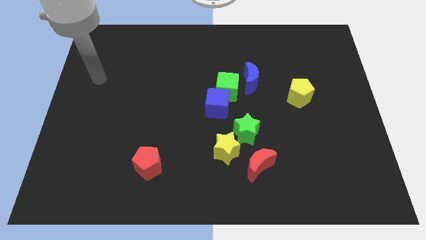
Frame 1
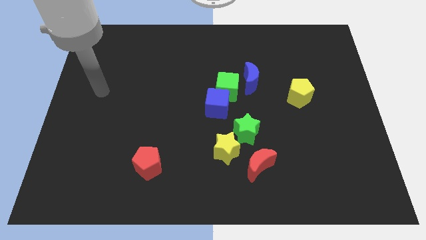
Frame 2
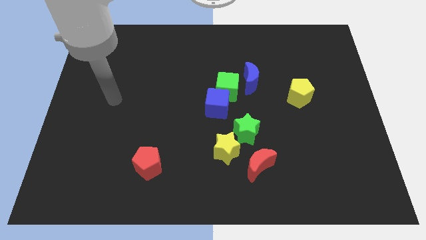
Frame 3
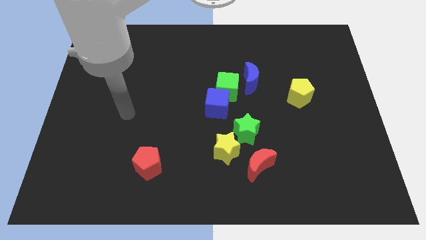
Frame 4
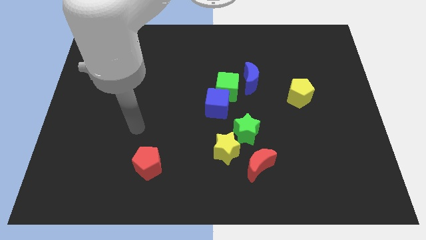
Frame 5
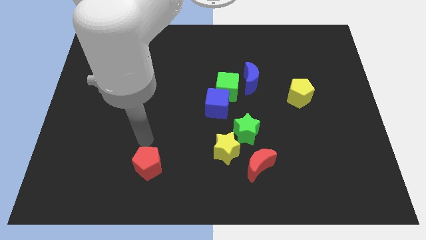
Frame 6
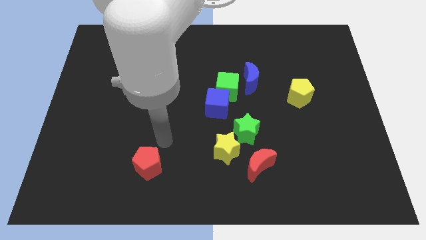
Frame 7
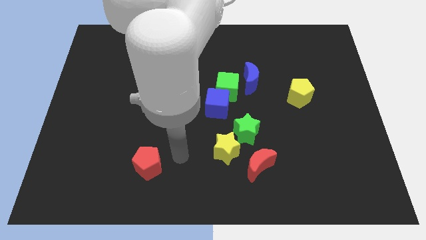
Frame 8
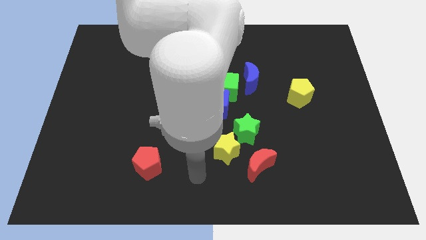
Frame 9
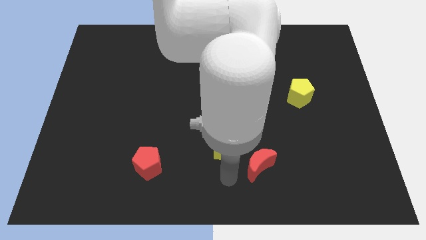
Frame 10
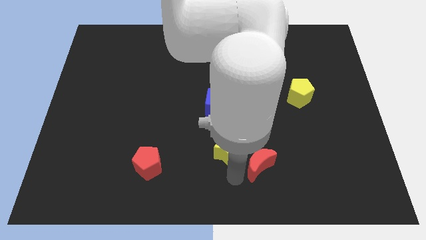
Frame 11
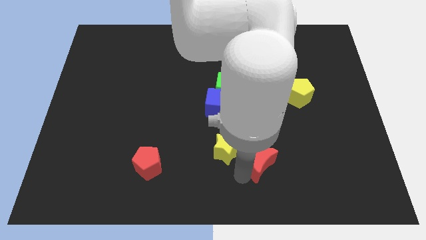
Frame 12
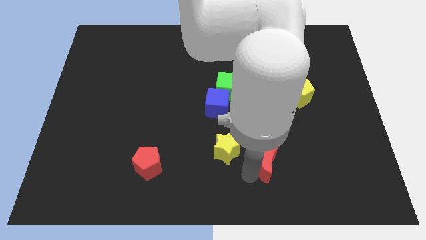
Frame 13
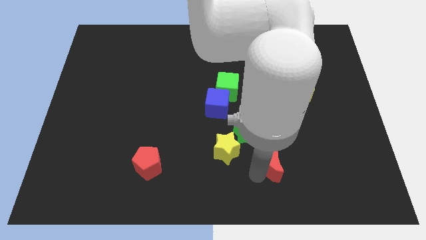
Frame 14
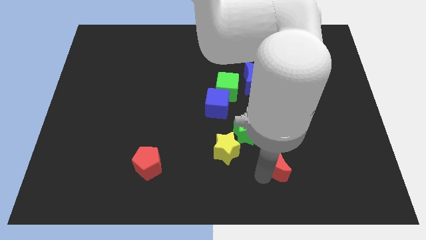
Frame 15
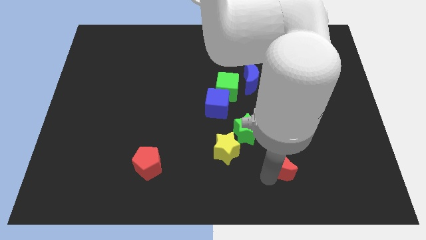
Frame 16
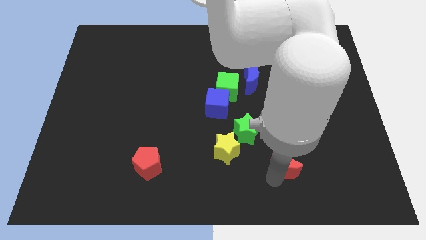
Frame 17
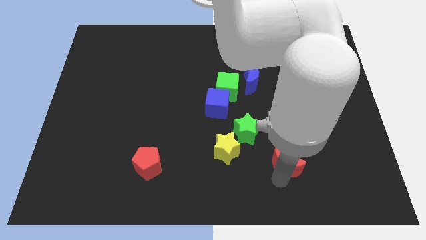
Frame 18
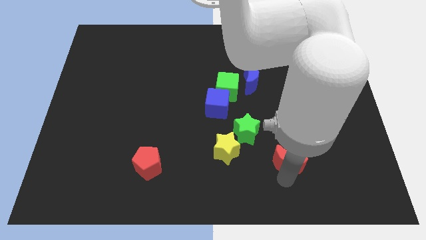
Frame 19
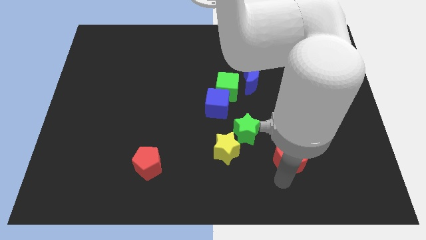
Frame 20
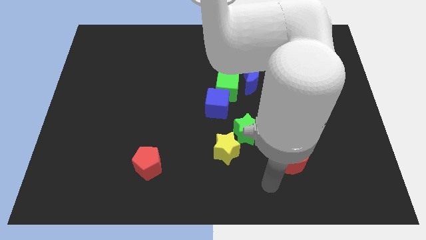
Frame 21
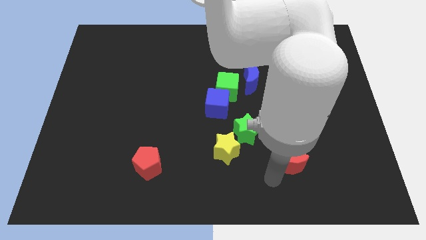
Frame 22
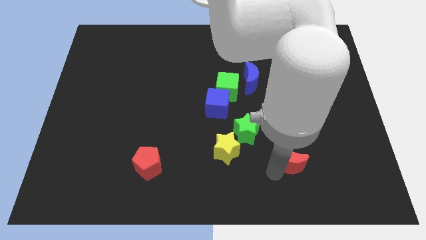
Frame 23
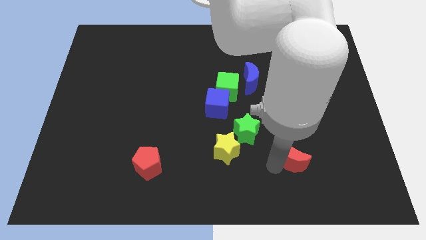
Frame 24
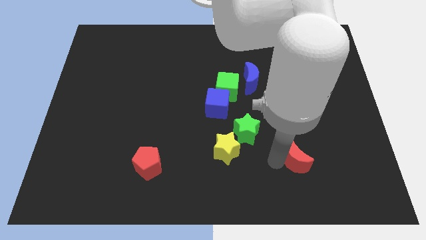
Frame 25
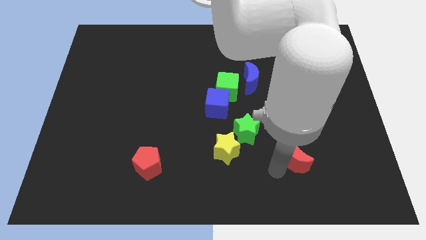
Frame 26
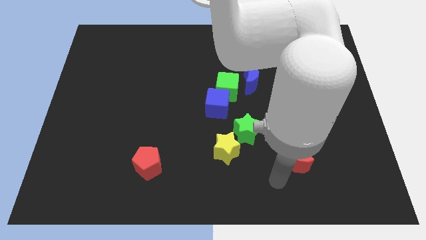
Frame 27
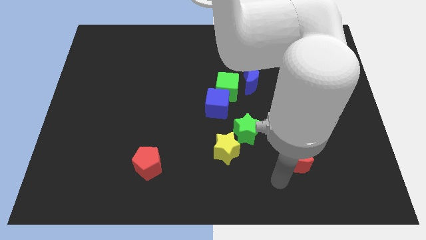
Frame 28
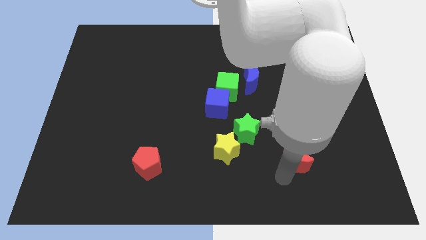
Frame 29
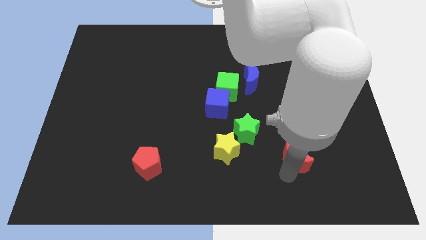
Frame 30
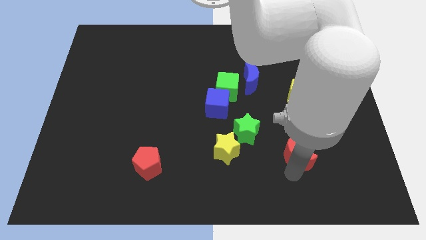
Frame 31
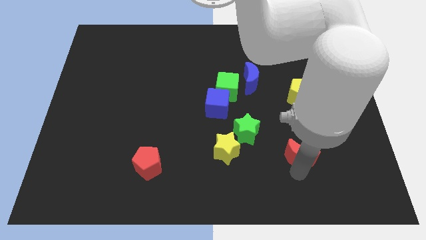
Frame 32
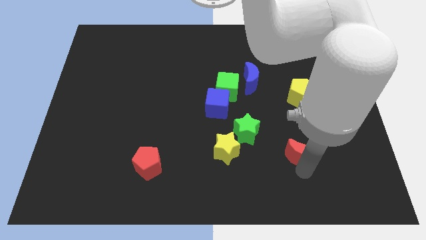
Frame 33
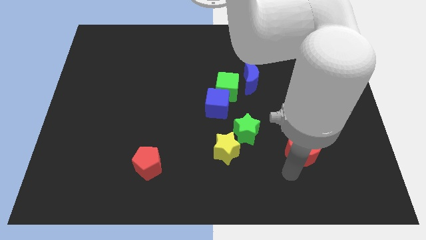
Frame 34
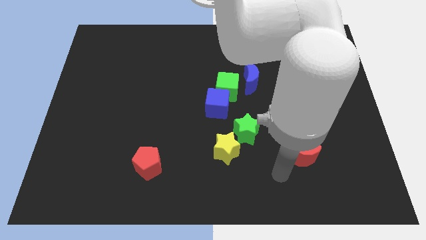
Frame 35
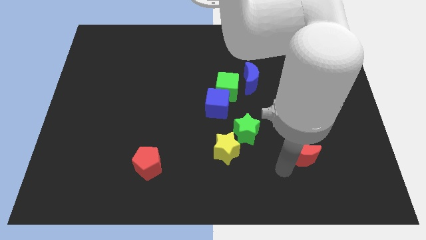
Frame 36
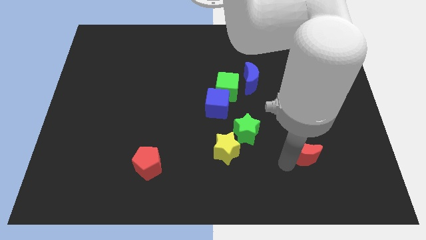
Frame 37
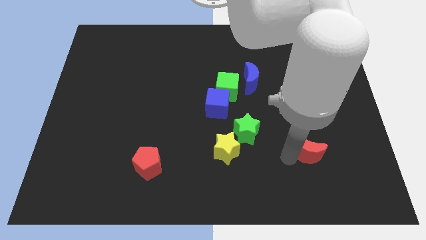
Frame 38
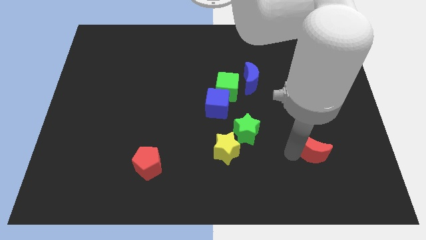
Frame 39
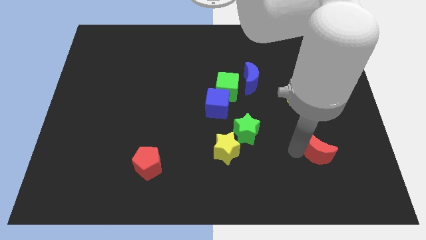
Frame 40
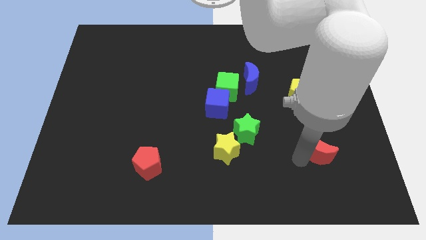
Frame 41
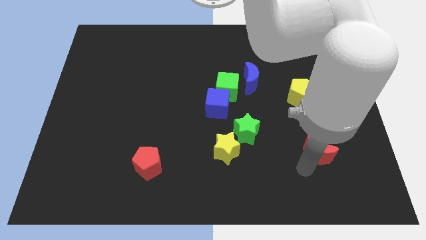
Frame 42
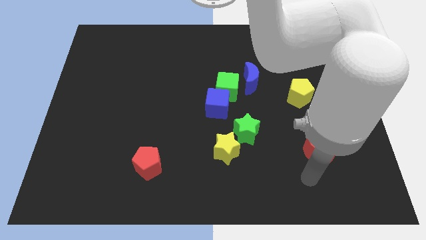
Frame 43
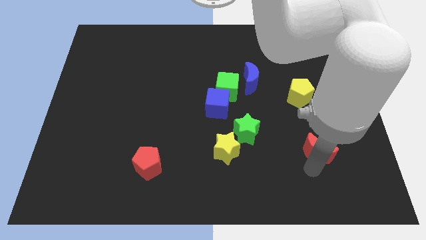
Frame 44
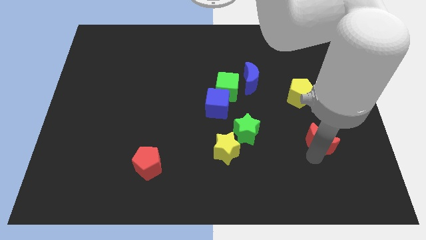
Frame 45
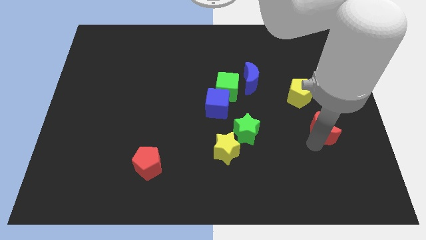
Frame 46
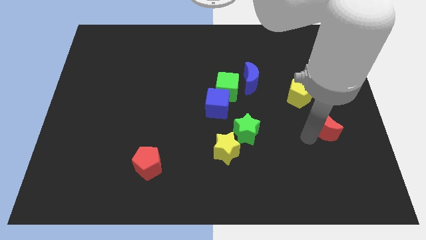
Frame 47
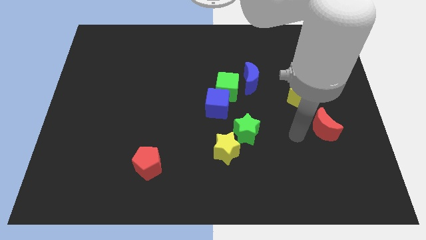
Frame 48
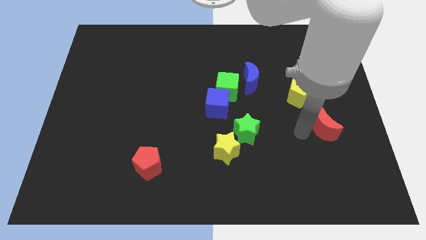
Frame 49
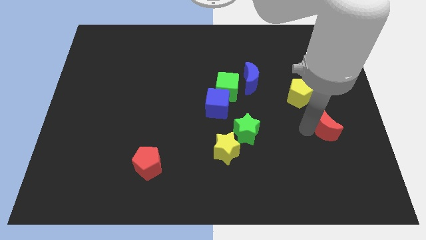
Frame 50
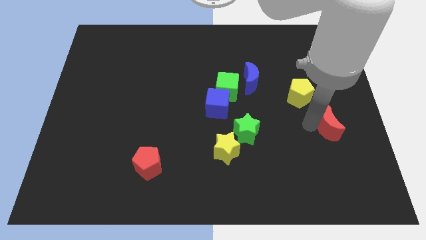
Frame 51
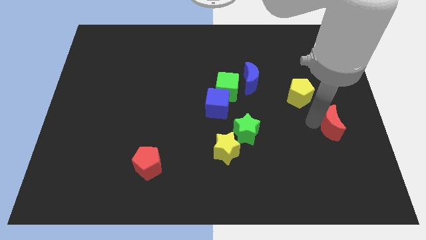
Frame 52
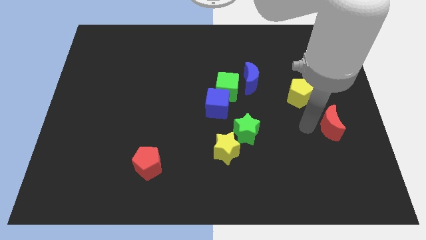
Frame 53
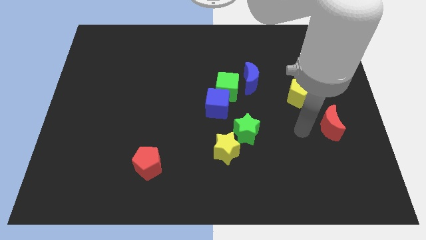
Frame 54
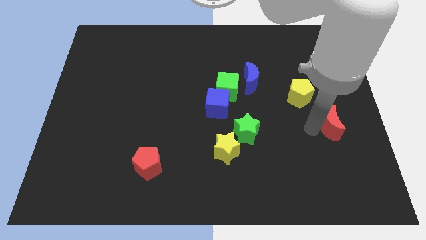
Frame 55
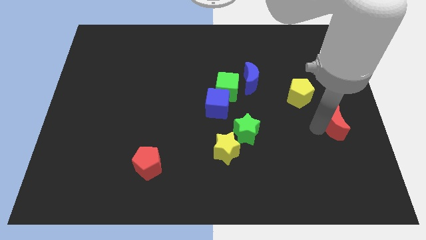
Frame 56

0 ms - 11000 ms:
push the red moon to the right side of the board

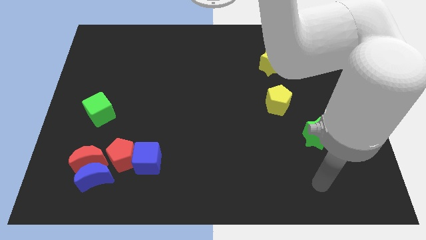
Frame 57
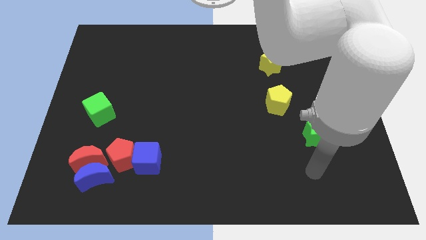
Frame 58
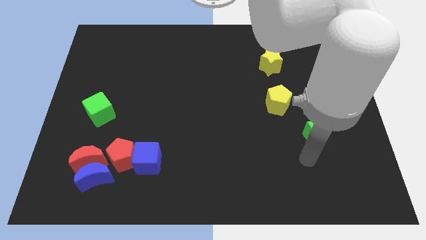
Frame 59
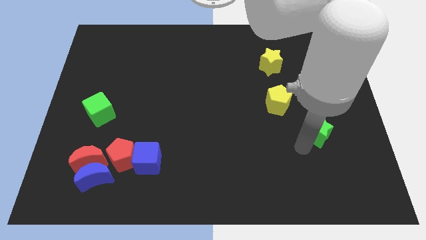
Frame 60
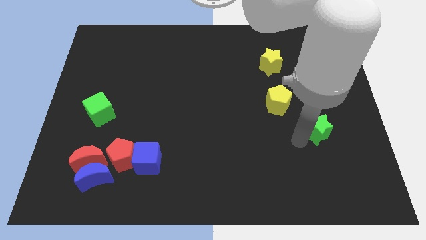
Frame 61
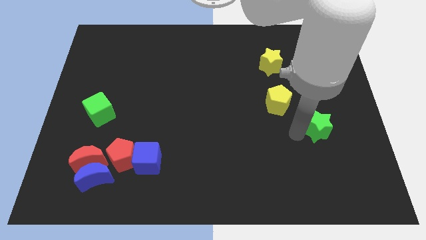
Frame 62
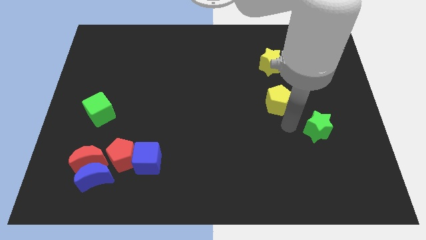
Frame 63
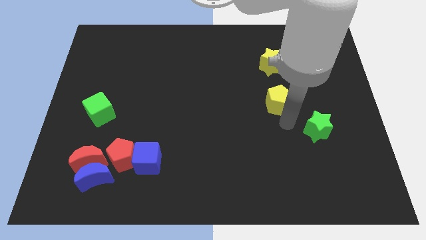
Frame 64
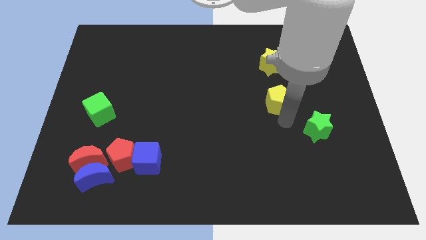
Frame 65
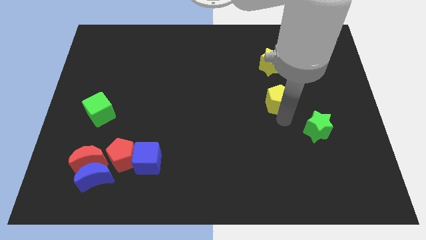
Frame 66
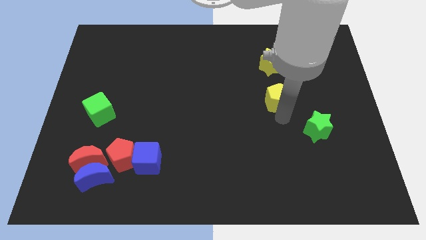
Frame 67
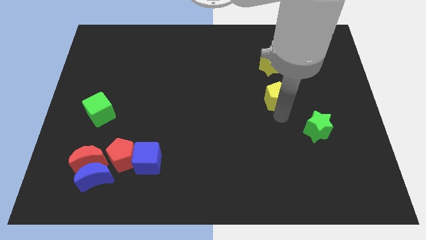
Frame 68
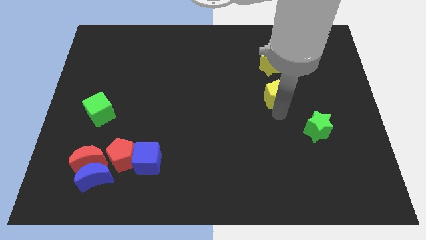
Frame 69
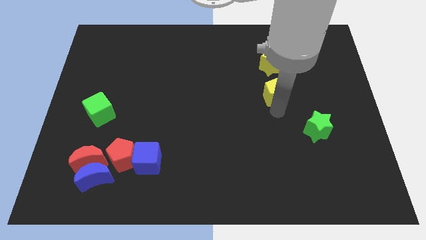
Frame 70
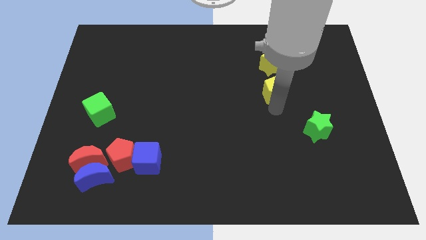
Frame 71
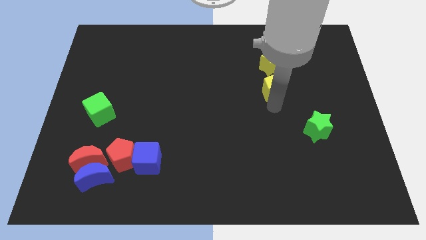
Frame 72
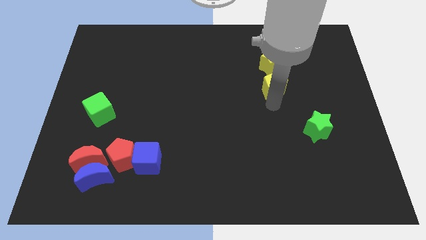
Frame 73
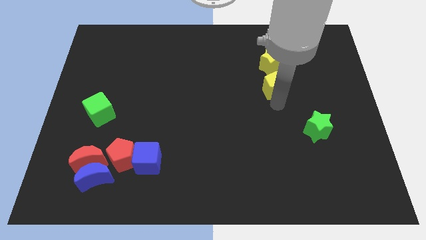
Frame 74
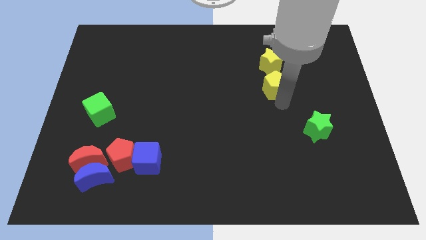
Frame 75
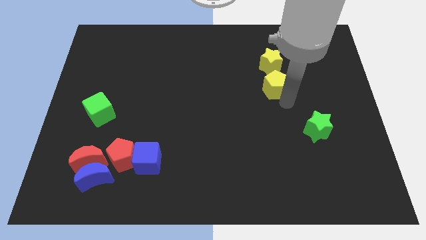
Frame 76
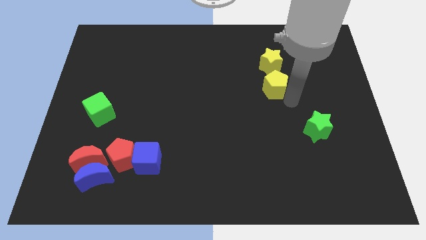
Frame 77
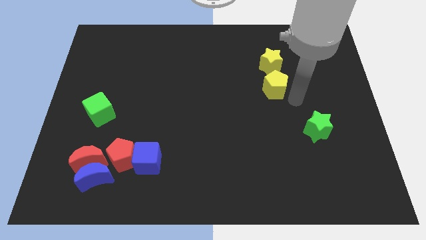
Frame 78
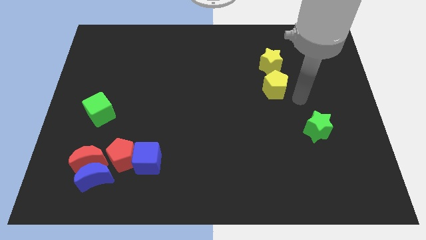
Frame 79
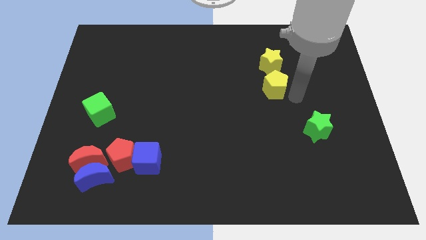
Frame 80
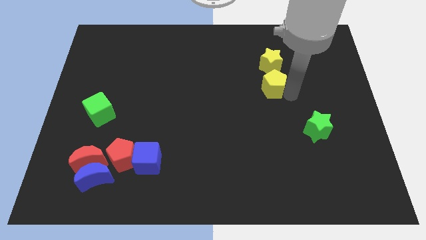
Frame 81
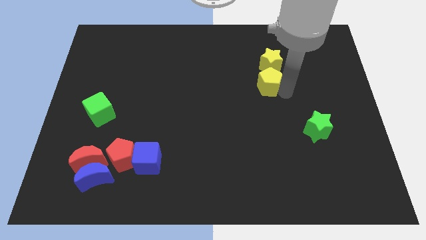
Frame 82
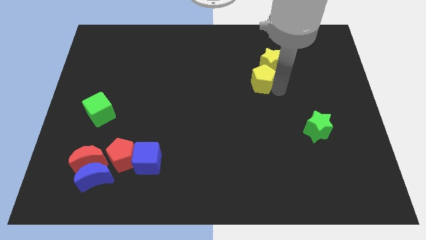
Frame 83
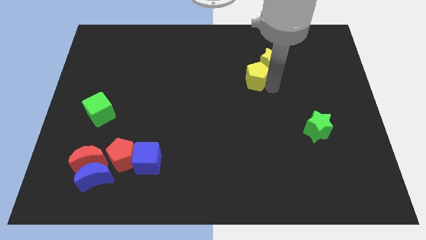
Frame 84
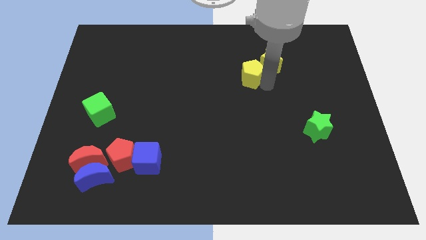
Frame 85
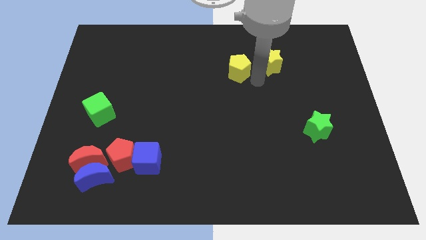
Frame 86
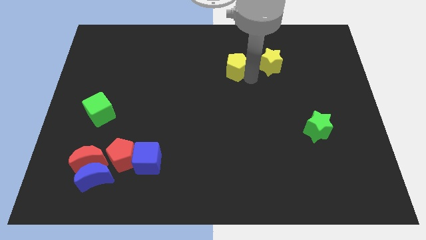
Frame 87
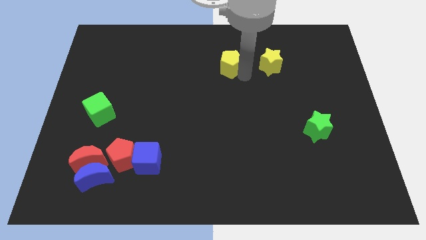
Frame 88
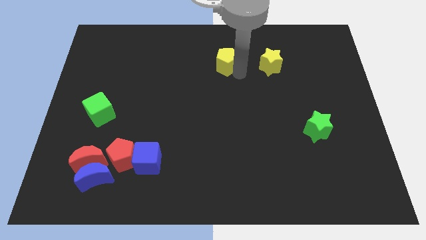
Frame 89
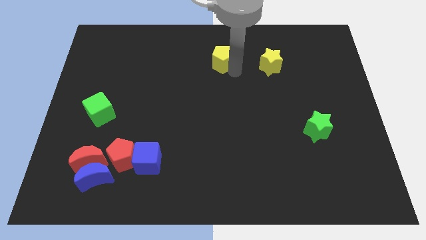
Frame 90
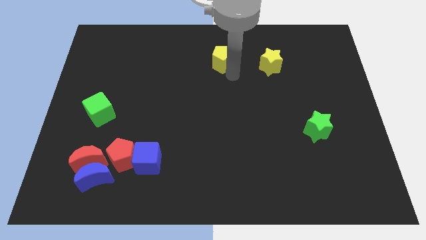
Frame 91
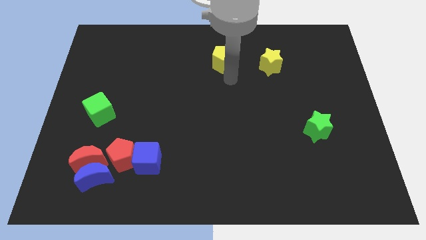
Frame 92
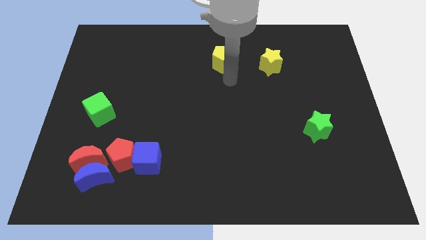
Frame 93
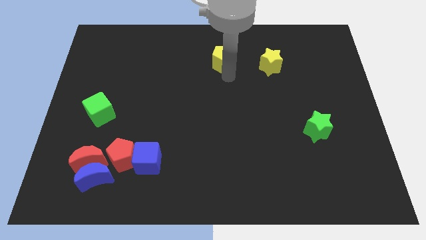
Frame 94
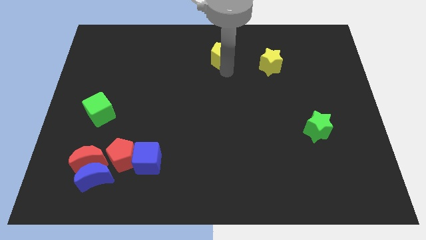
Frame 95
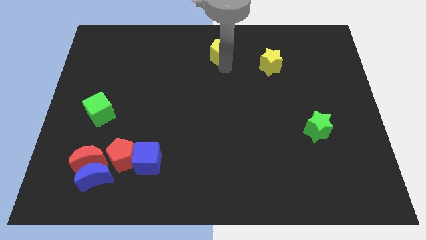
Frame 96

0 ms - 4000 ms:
move the yellow pentagon to the top side
